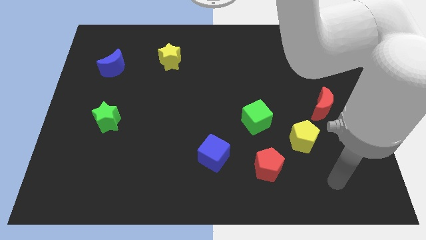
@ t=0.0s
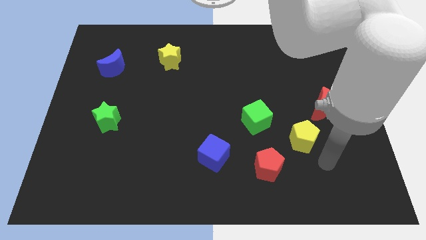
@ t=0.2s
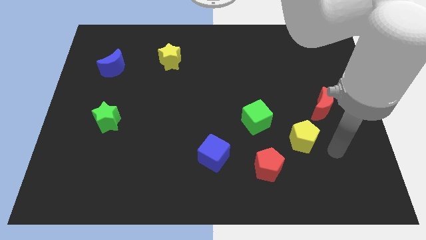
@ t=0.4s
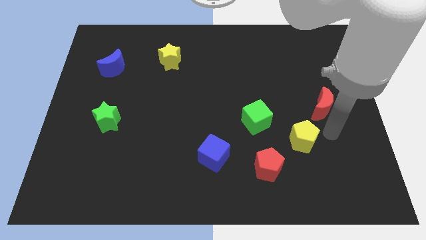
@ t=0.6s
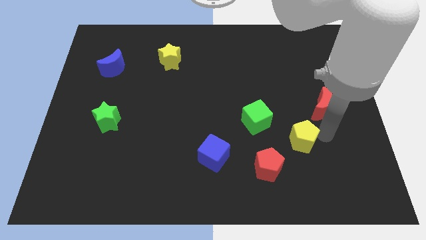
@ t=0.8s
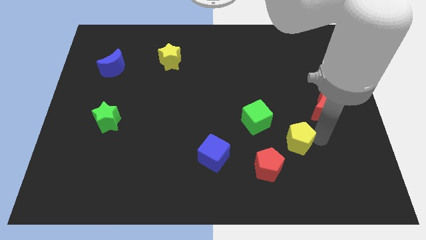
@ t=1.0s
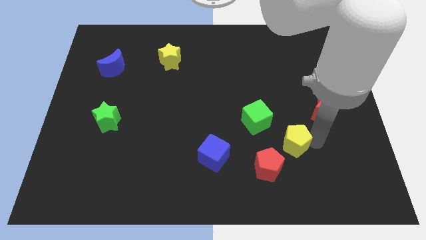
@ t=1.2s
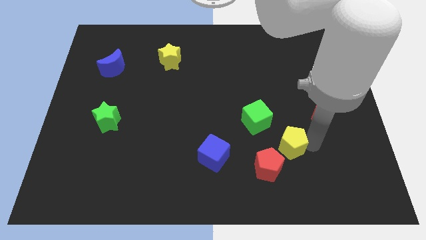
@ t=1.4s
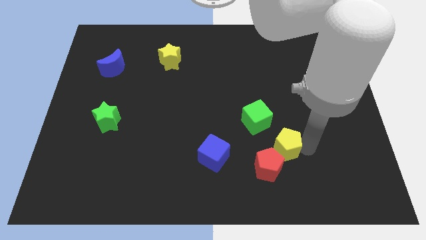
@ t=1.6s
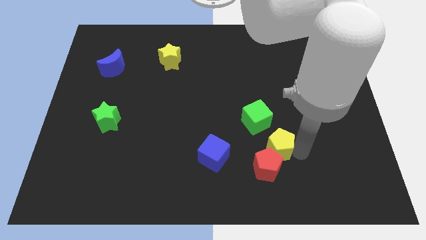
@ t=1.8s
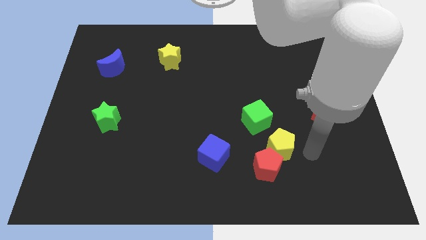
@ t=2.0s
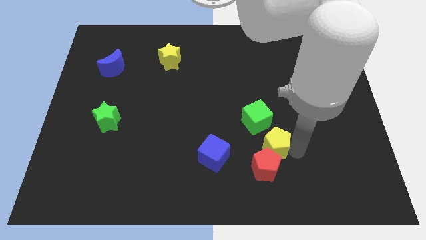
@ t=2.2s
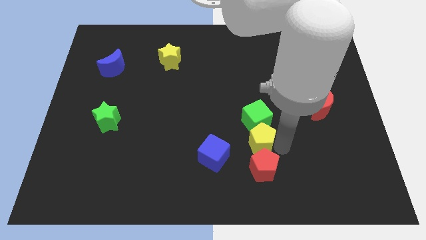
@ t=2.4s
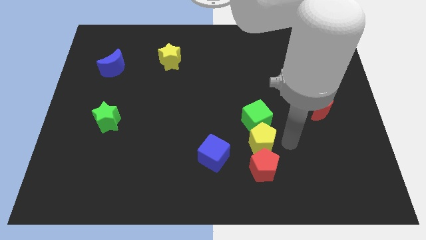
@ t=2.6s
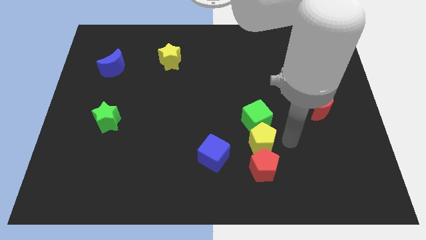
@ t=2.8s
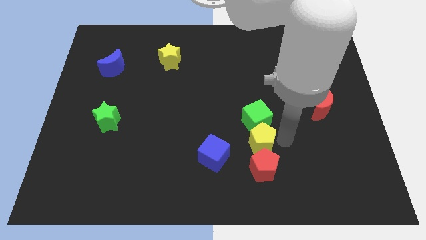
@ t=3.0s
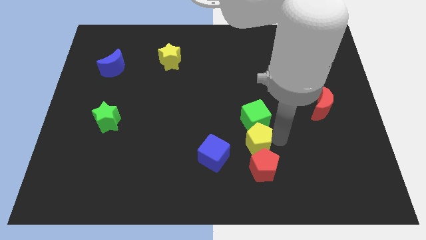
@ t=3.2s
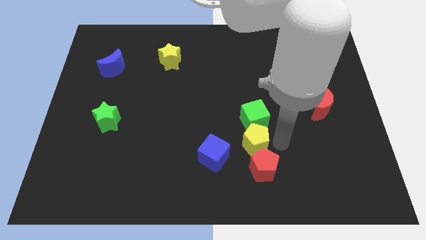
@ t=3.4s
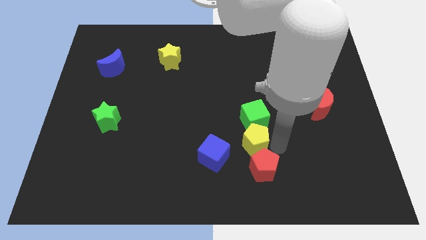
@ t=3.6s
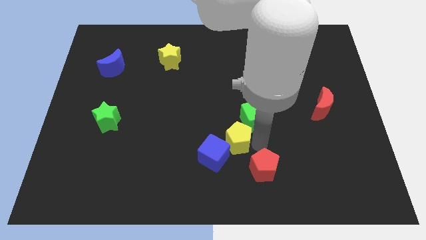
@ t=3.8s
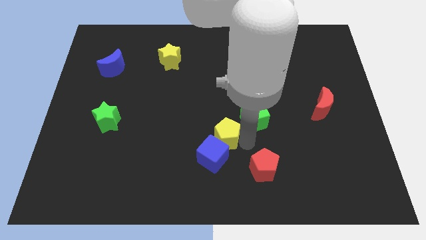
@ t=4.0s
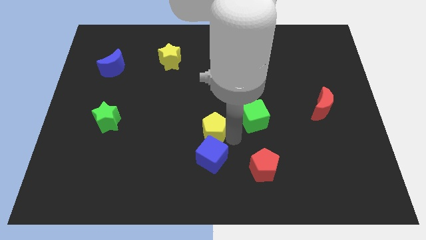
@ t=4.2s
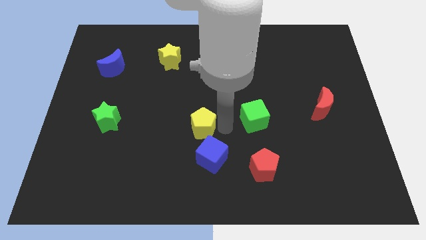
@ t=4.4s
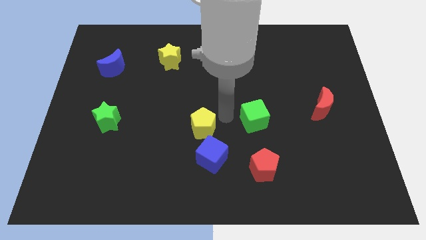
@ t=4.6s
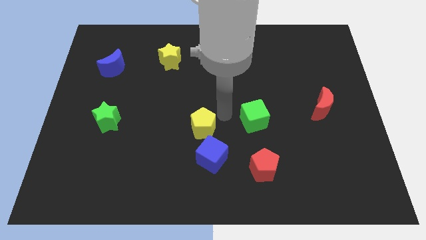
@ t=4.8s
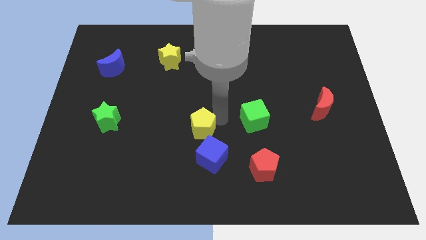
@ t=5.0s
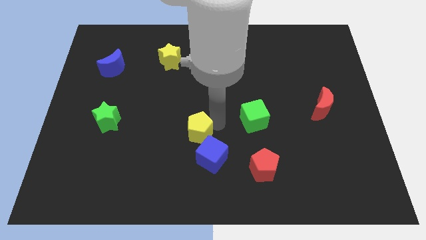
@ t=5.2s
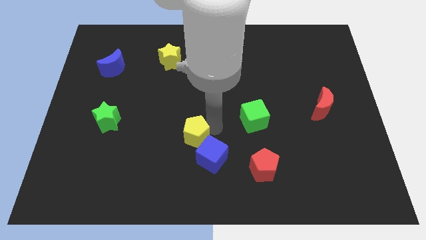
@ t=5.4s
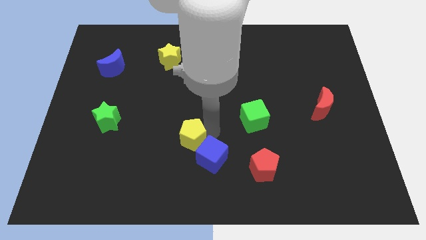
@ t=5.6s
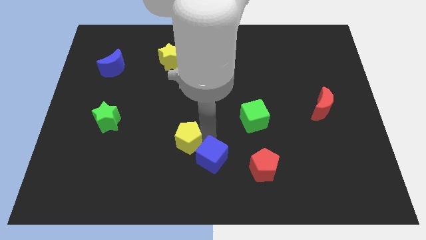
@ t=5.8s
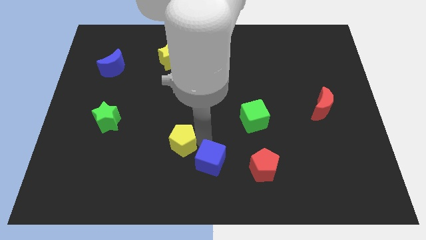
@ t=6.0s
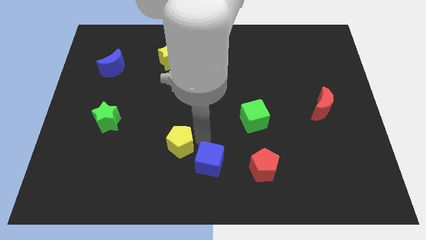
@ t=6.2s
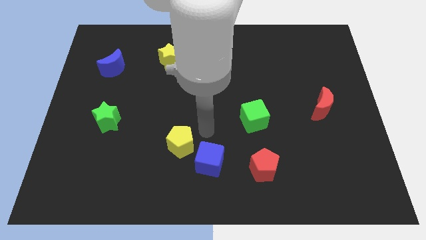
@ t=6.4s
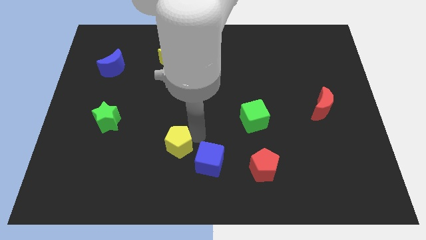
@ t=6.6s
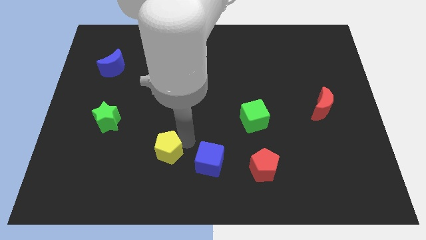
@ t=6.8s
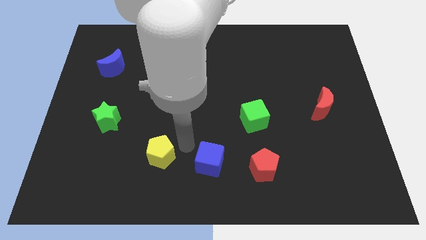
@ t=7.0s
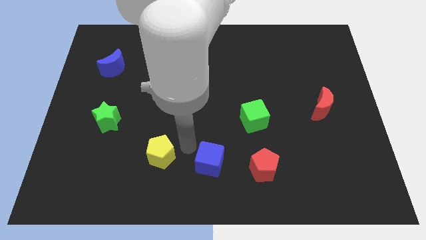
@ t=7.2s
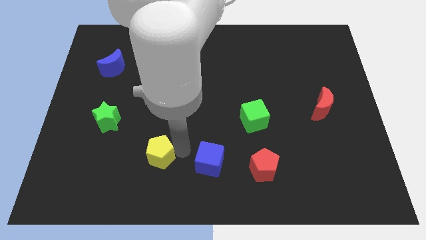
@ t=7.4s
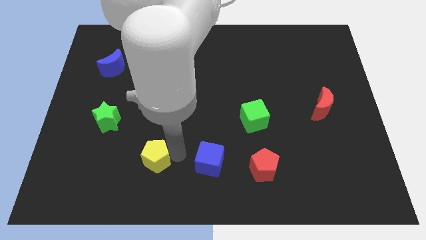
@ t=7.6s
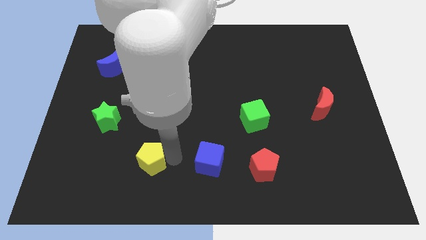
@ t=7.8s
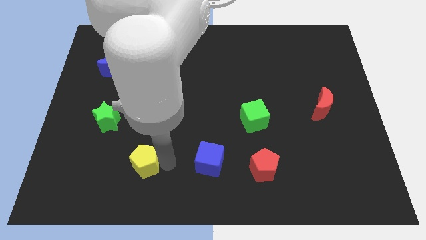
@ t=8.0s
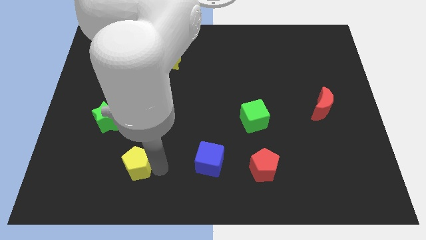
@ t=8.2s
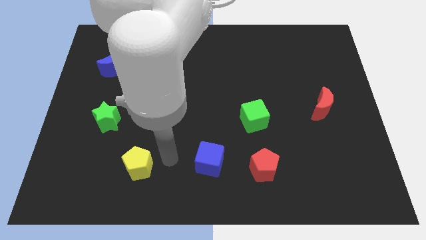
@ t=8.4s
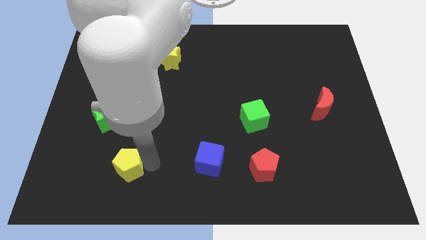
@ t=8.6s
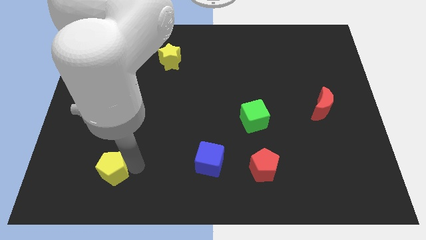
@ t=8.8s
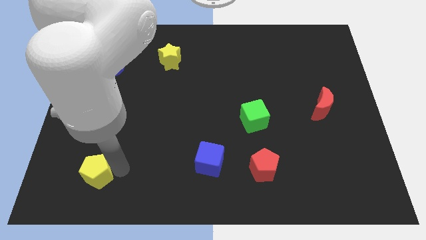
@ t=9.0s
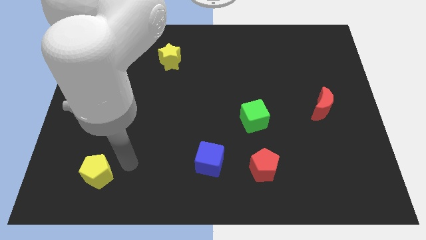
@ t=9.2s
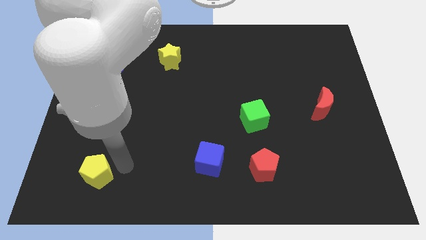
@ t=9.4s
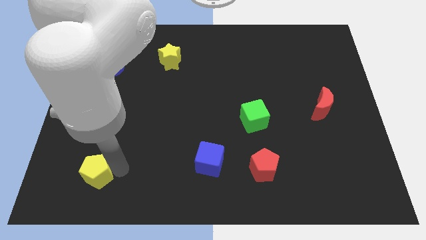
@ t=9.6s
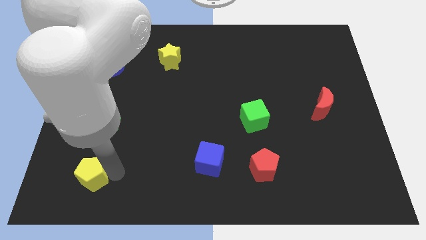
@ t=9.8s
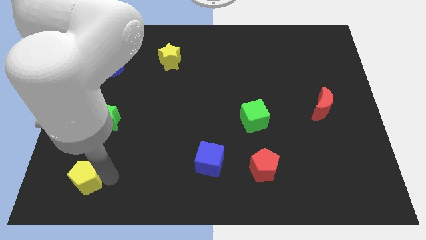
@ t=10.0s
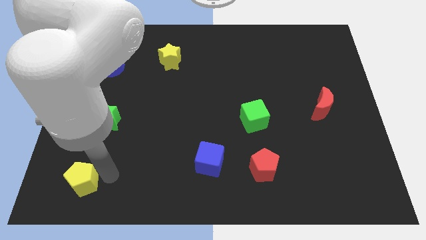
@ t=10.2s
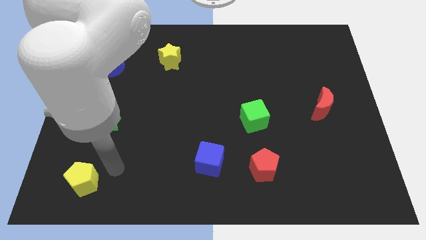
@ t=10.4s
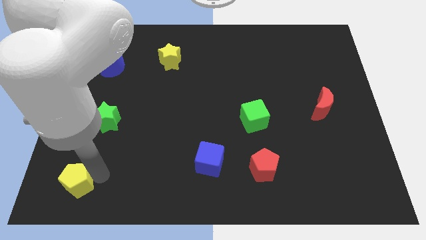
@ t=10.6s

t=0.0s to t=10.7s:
push the yellow pentagon to the bottom left

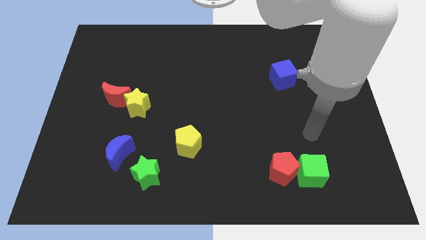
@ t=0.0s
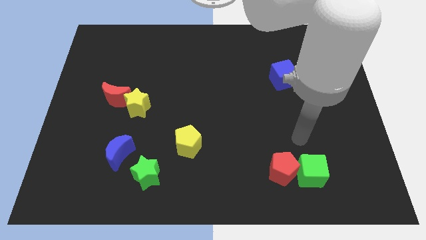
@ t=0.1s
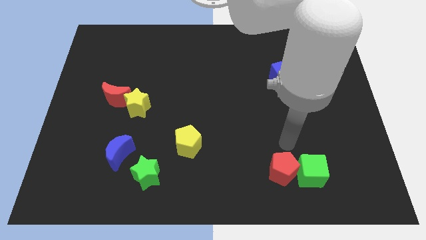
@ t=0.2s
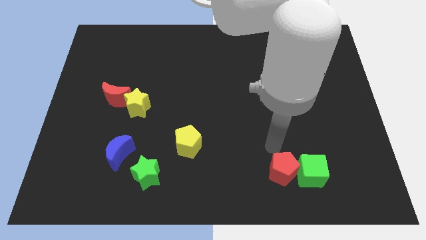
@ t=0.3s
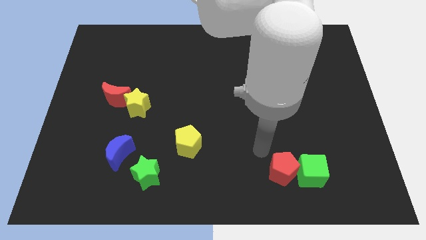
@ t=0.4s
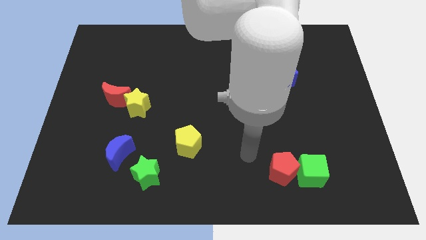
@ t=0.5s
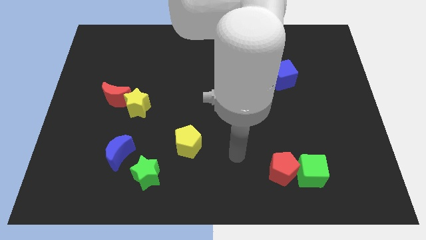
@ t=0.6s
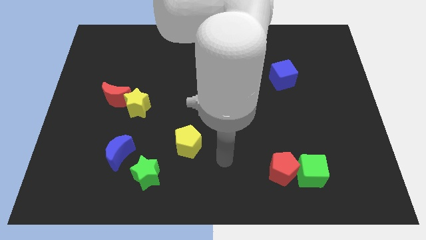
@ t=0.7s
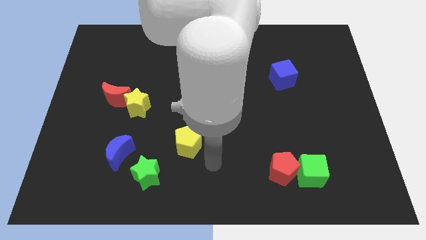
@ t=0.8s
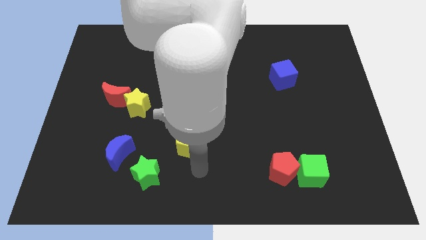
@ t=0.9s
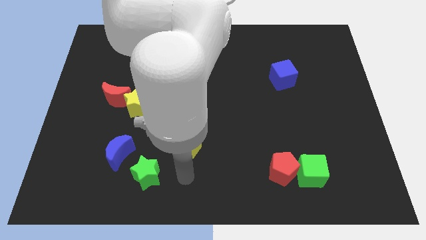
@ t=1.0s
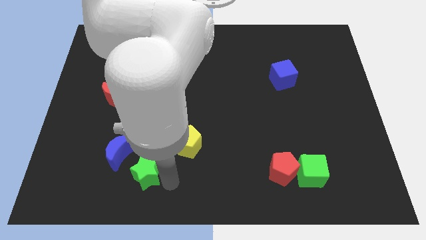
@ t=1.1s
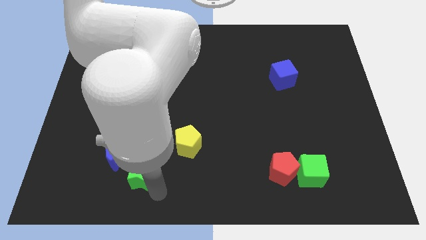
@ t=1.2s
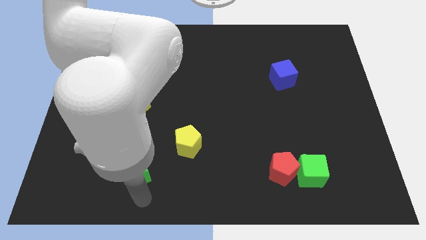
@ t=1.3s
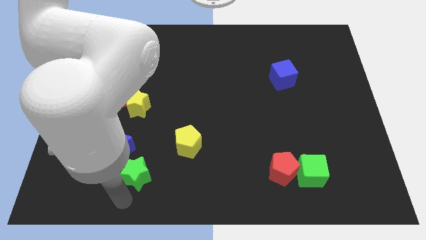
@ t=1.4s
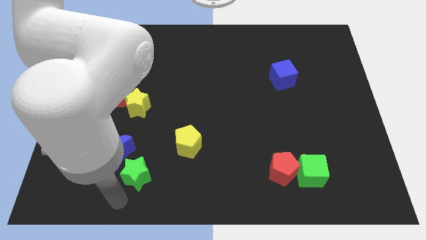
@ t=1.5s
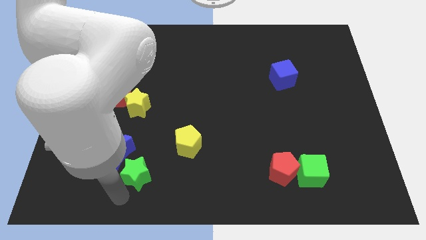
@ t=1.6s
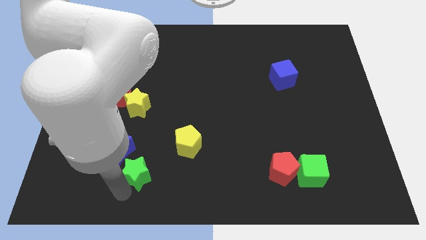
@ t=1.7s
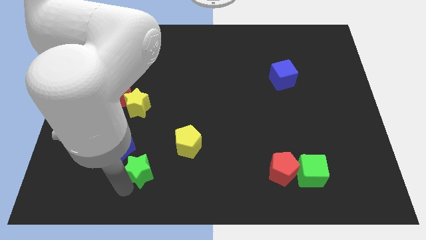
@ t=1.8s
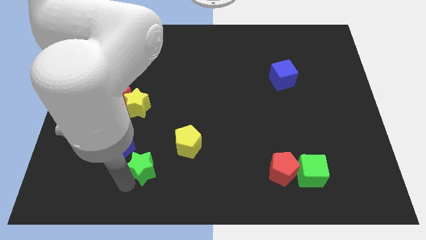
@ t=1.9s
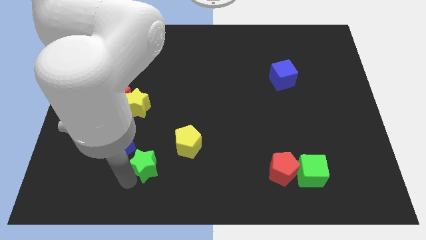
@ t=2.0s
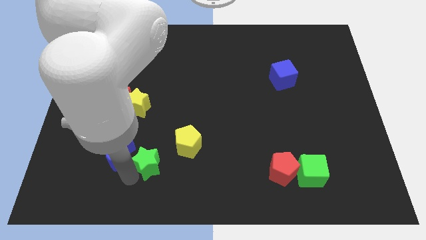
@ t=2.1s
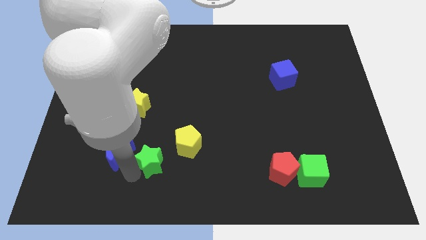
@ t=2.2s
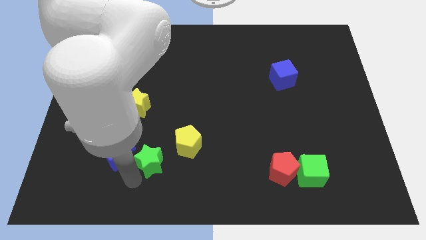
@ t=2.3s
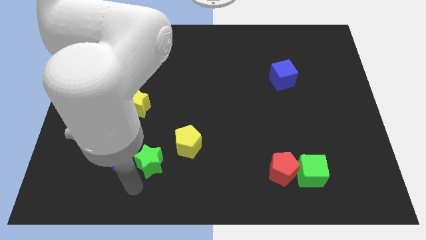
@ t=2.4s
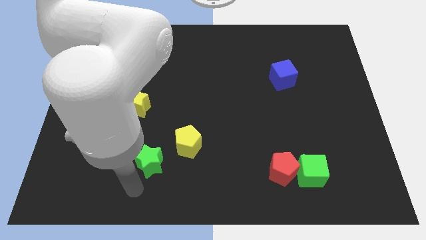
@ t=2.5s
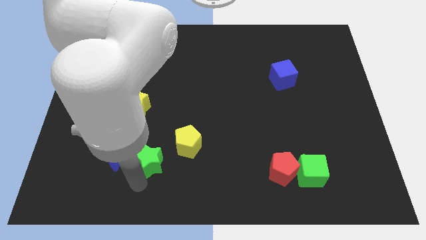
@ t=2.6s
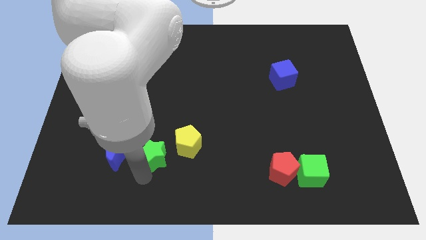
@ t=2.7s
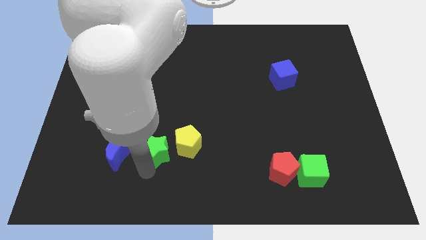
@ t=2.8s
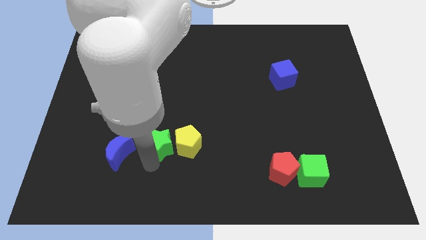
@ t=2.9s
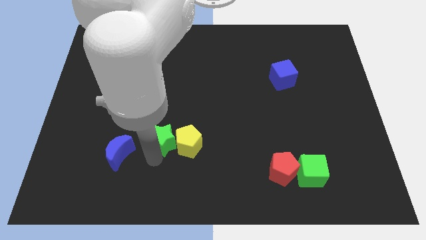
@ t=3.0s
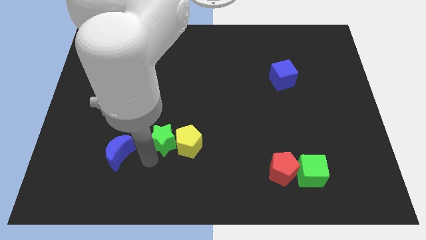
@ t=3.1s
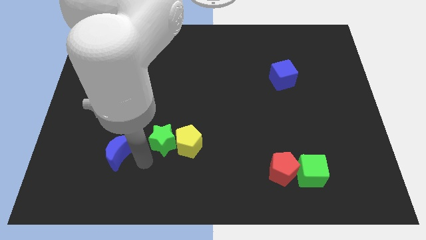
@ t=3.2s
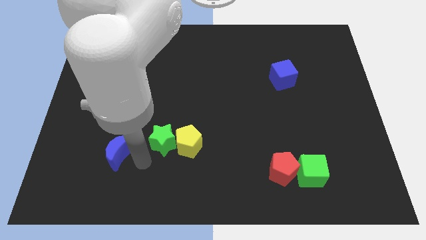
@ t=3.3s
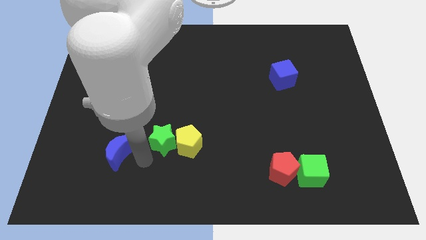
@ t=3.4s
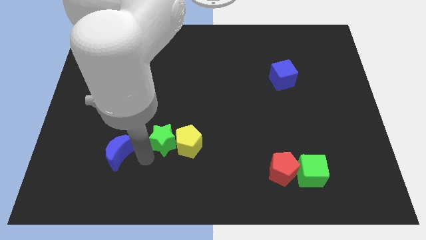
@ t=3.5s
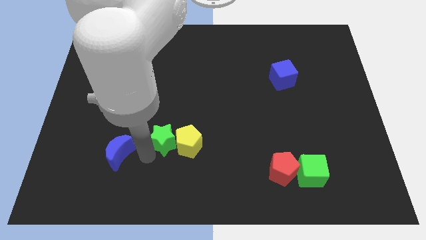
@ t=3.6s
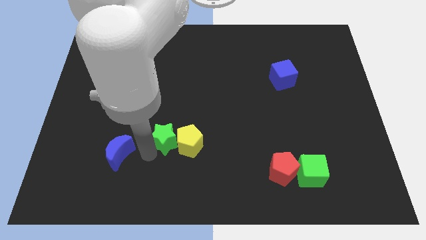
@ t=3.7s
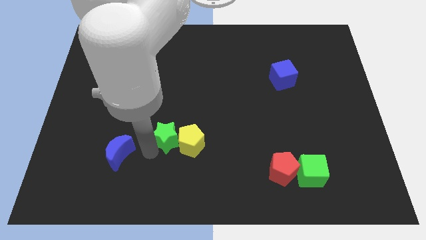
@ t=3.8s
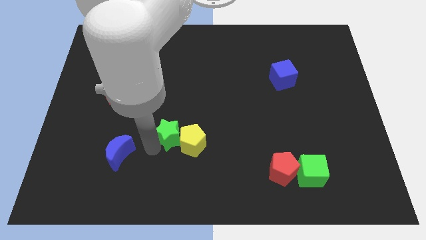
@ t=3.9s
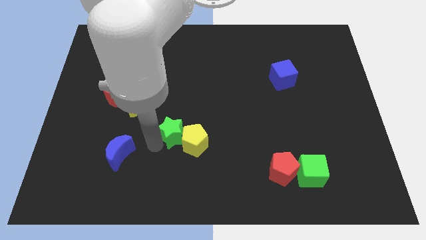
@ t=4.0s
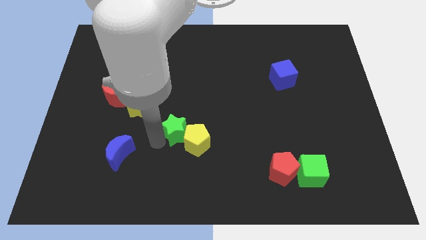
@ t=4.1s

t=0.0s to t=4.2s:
slide the green star to the middle
